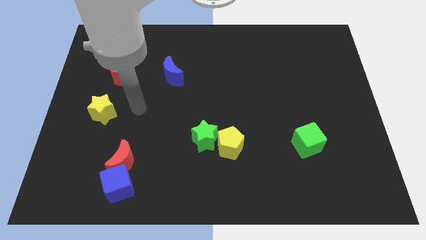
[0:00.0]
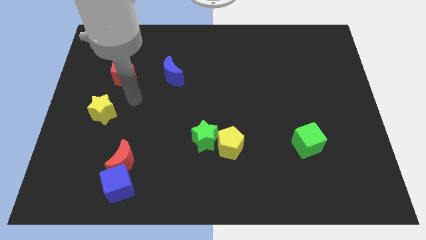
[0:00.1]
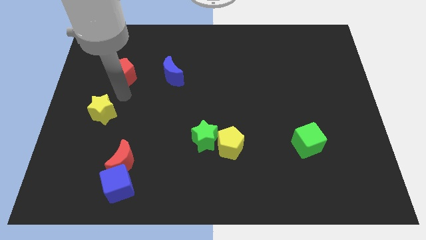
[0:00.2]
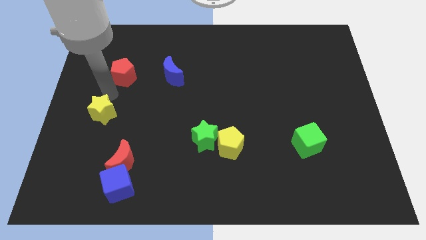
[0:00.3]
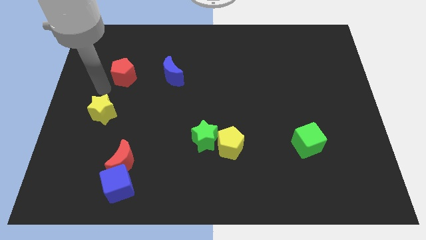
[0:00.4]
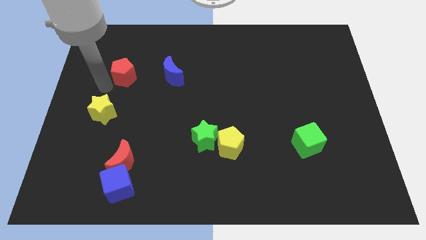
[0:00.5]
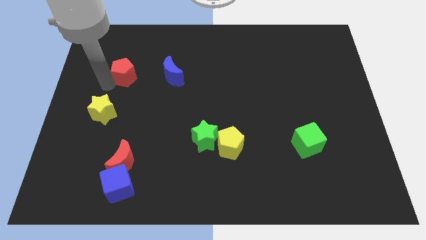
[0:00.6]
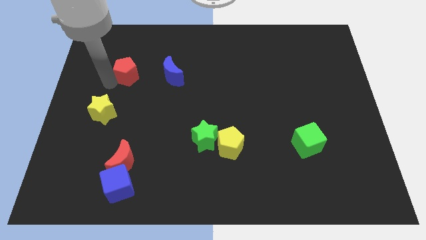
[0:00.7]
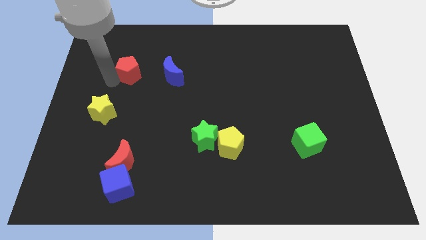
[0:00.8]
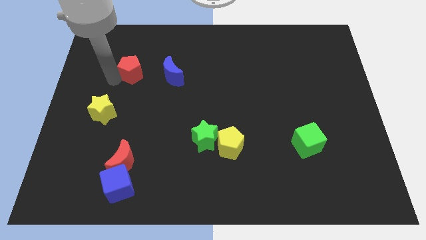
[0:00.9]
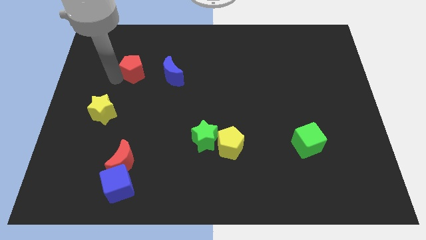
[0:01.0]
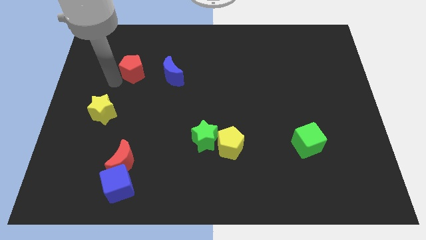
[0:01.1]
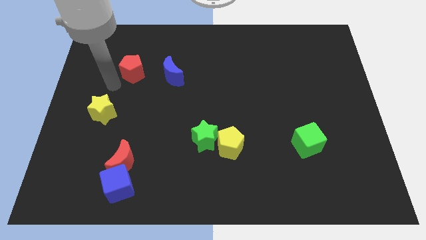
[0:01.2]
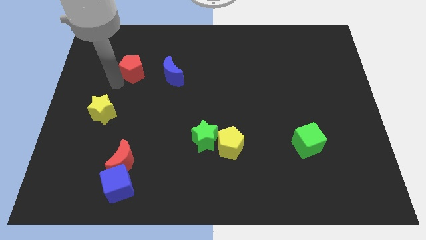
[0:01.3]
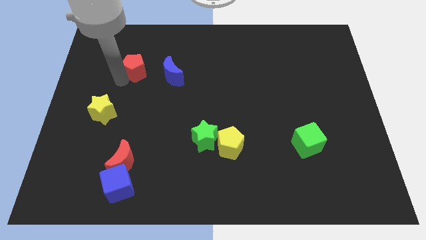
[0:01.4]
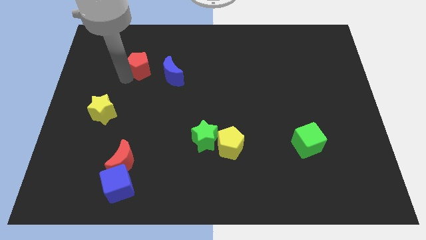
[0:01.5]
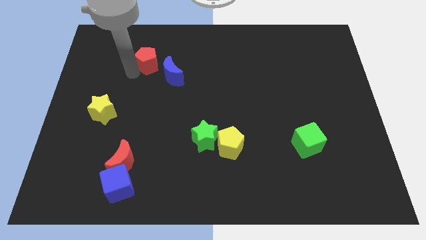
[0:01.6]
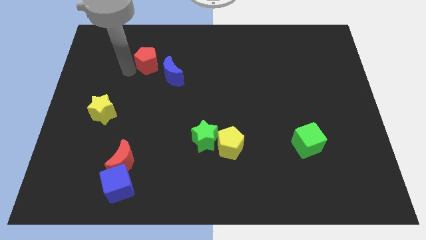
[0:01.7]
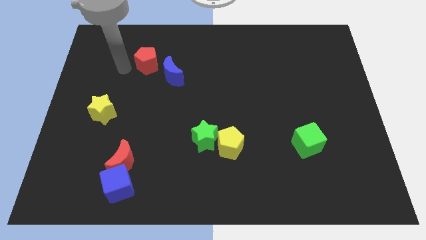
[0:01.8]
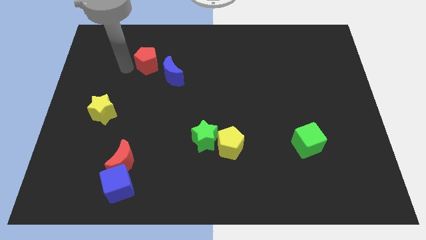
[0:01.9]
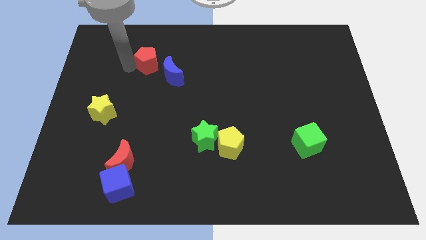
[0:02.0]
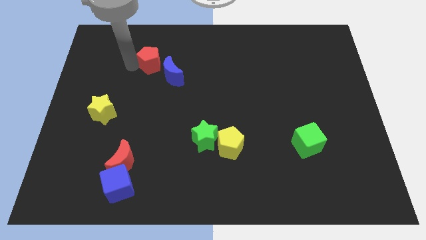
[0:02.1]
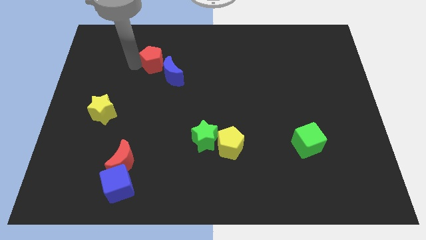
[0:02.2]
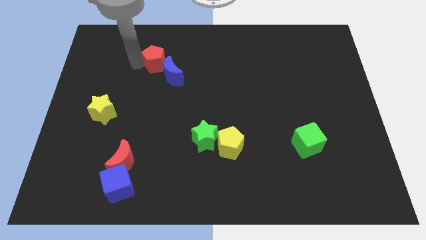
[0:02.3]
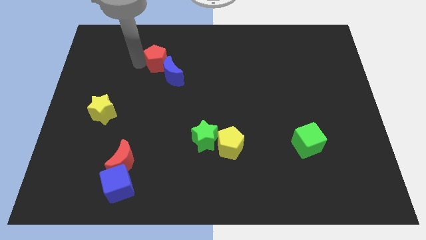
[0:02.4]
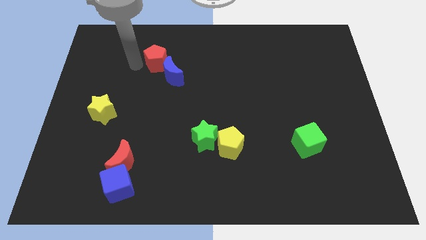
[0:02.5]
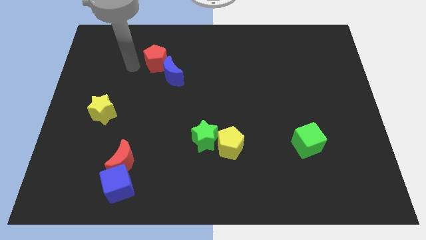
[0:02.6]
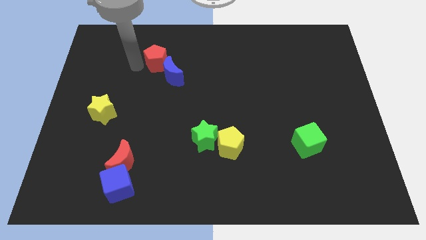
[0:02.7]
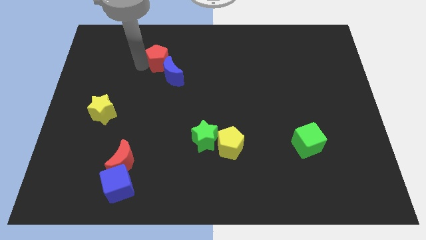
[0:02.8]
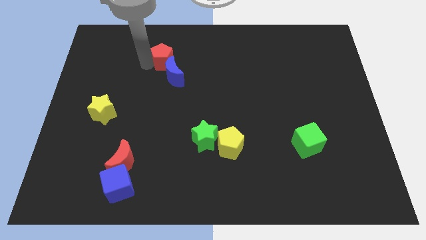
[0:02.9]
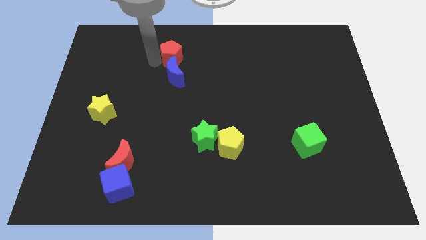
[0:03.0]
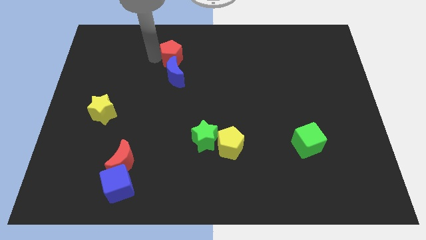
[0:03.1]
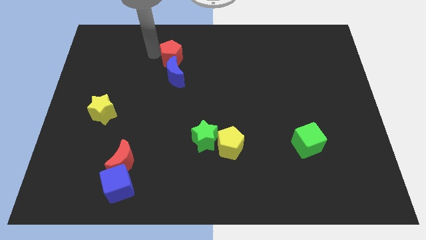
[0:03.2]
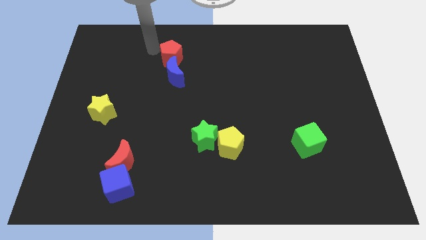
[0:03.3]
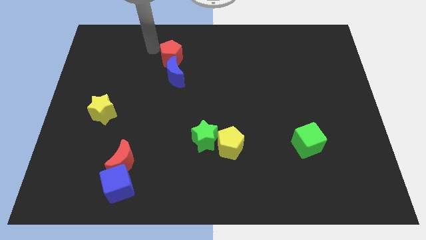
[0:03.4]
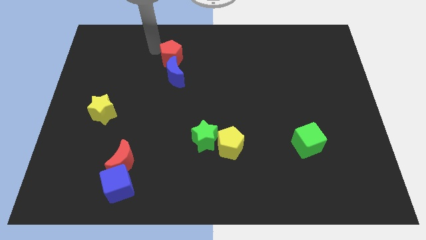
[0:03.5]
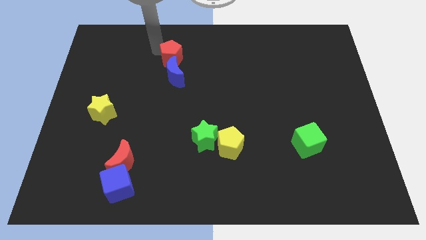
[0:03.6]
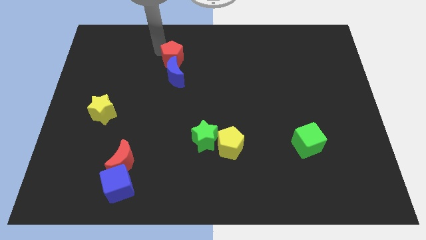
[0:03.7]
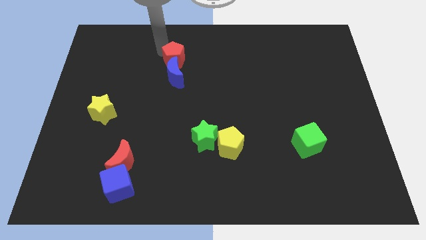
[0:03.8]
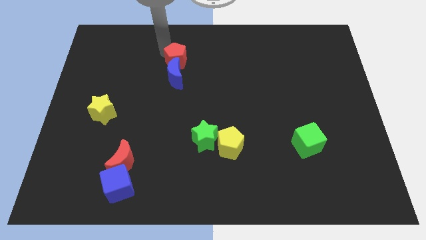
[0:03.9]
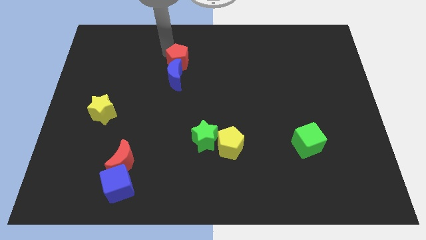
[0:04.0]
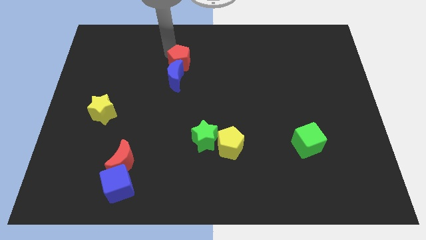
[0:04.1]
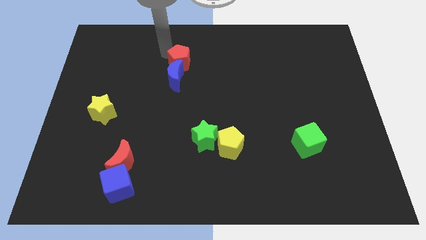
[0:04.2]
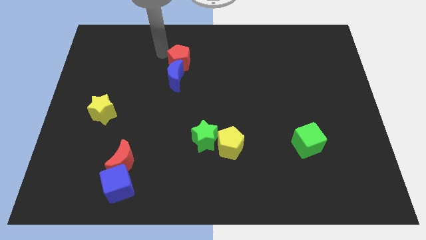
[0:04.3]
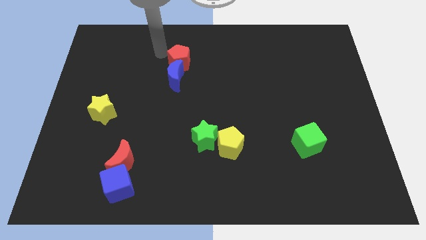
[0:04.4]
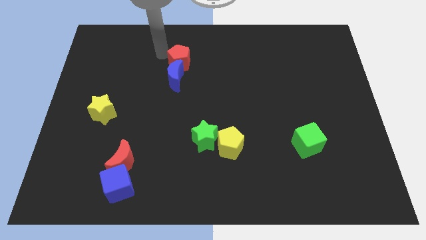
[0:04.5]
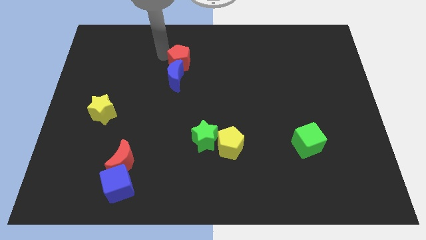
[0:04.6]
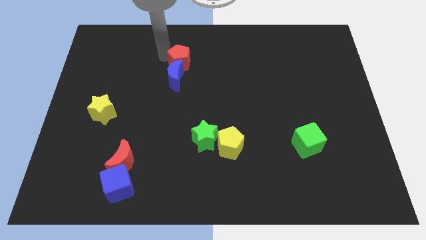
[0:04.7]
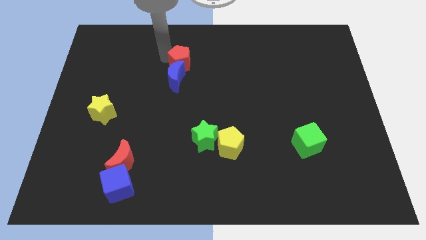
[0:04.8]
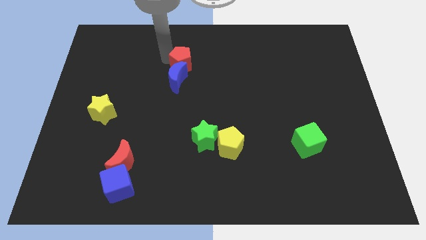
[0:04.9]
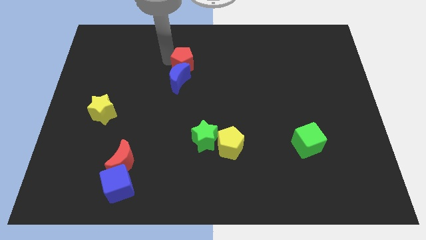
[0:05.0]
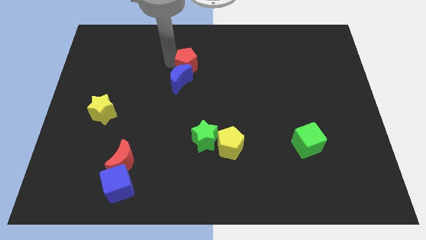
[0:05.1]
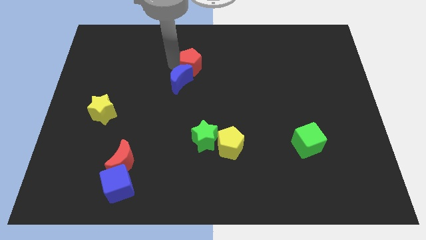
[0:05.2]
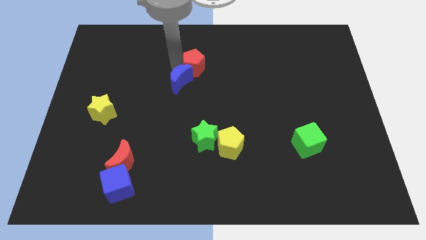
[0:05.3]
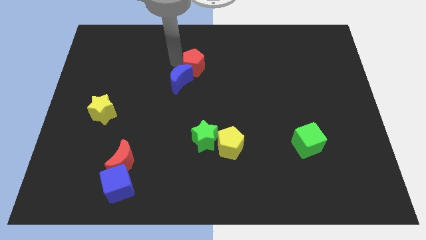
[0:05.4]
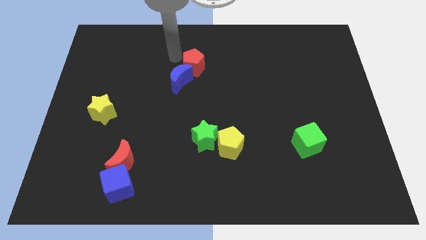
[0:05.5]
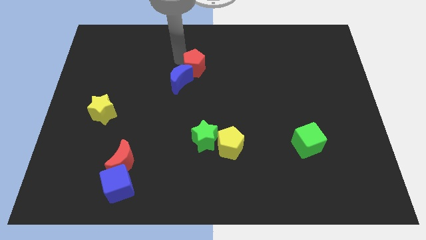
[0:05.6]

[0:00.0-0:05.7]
move the red pentagon to the right side of the blue moon

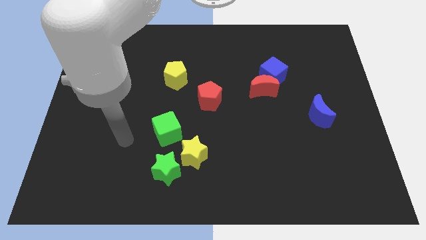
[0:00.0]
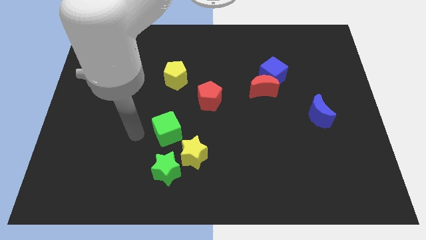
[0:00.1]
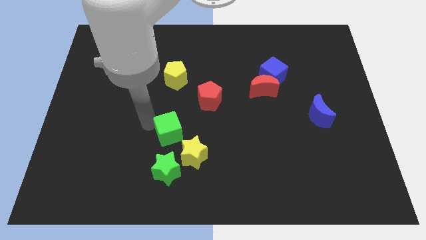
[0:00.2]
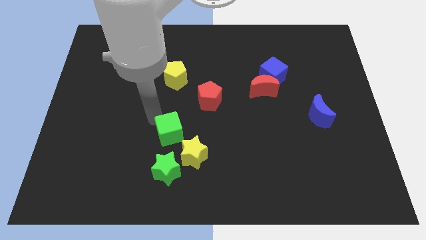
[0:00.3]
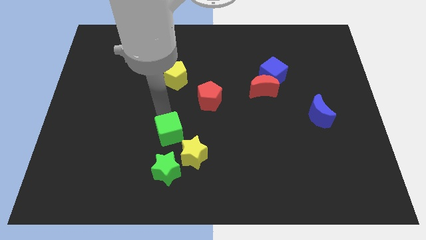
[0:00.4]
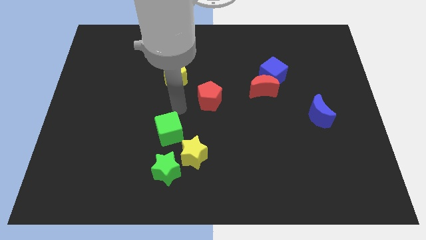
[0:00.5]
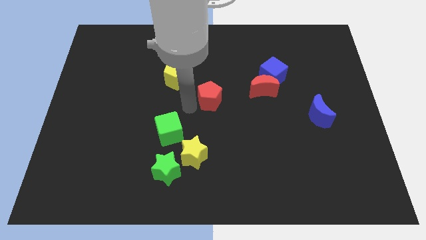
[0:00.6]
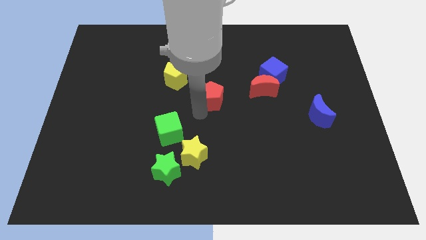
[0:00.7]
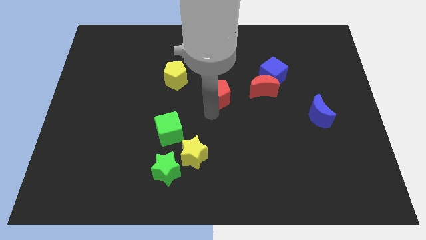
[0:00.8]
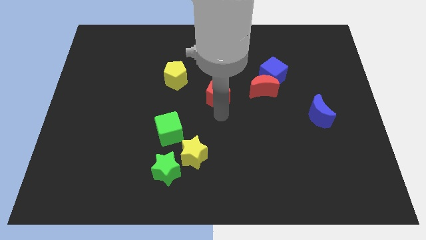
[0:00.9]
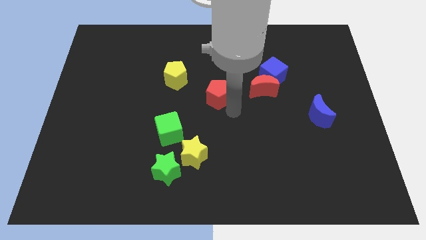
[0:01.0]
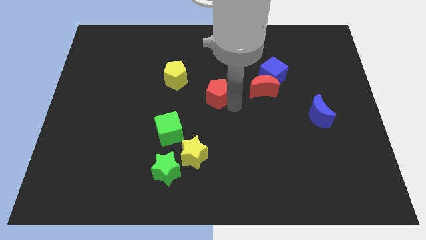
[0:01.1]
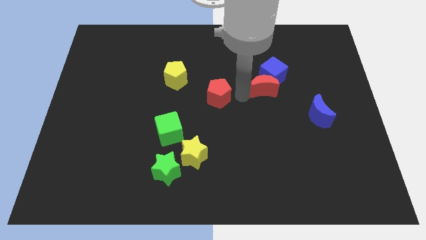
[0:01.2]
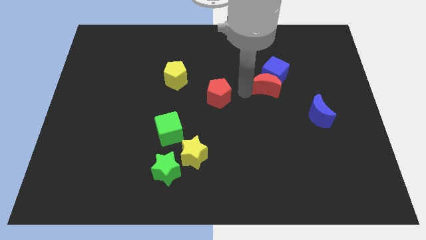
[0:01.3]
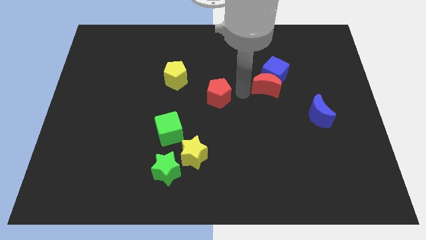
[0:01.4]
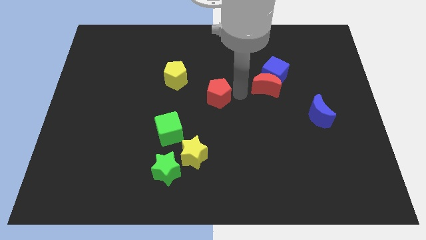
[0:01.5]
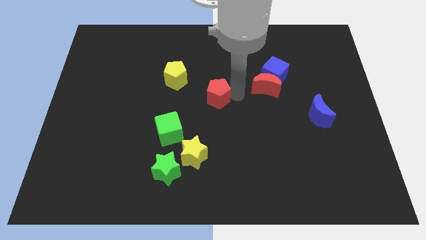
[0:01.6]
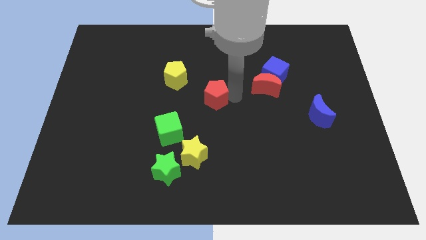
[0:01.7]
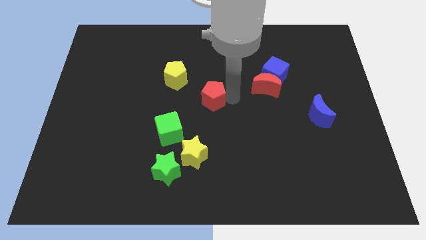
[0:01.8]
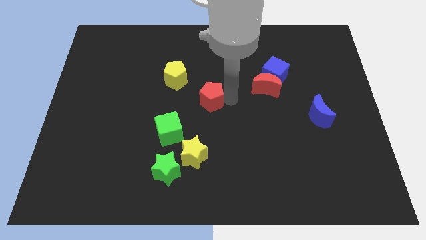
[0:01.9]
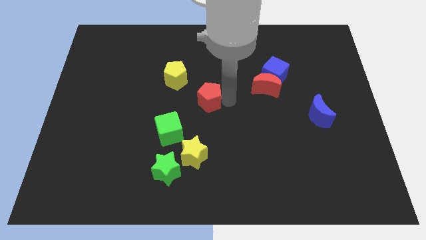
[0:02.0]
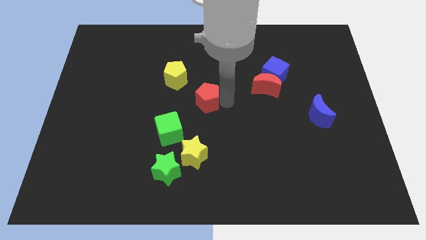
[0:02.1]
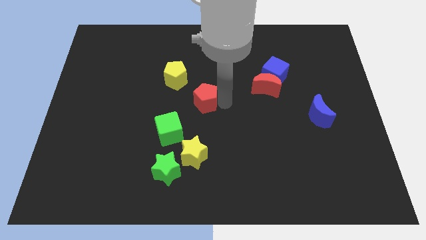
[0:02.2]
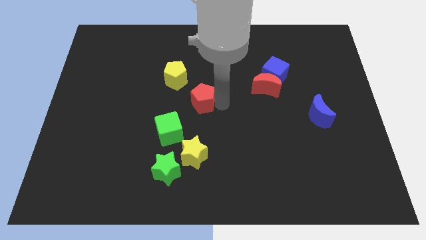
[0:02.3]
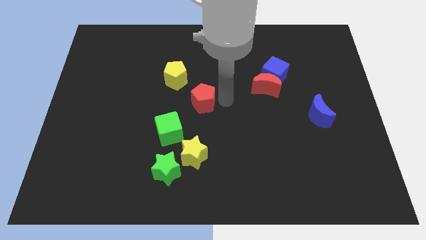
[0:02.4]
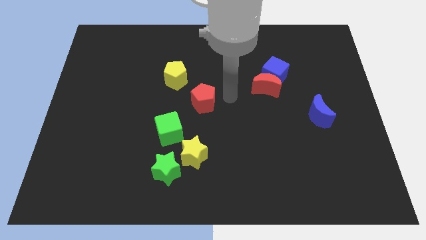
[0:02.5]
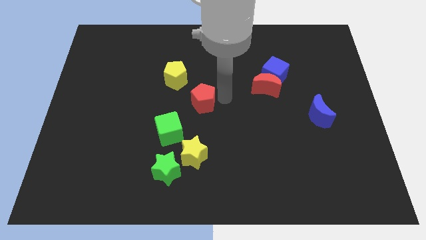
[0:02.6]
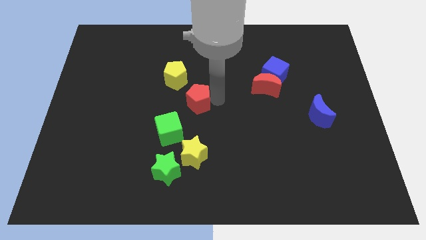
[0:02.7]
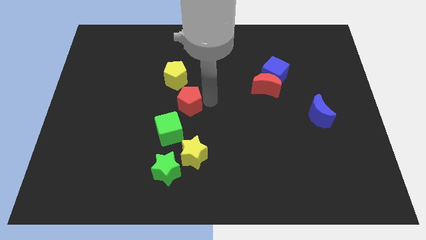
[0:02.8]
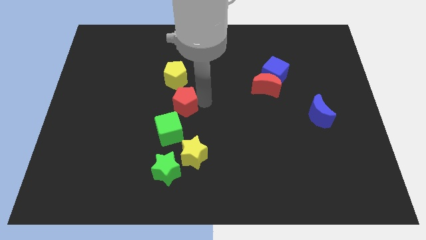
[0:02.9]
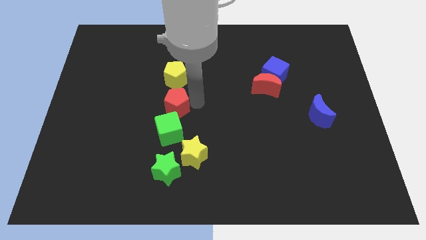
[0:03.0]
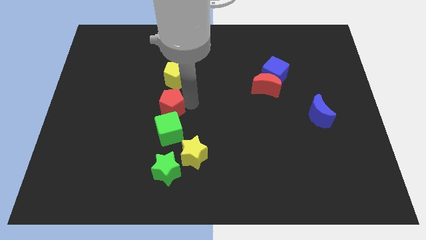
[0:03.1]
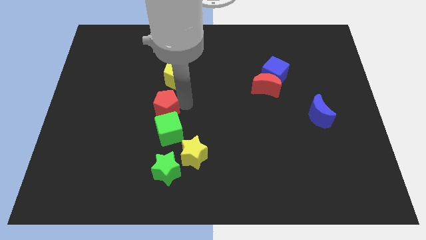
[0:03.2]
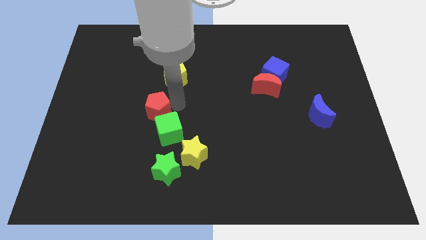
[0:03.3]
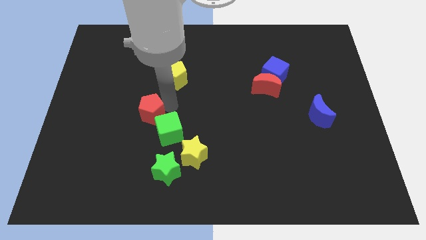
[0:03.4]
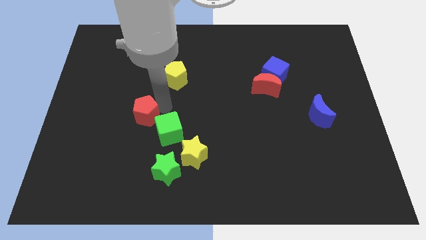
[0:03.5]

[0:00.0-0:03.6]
put the red pentagon left of the green cube
